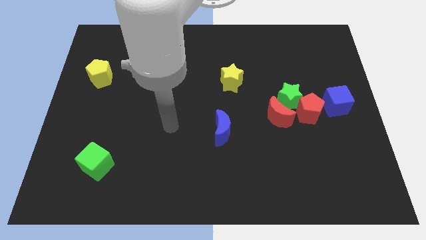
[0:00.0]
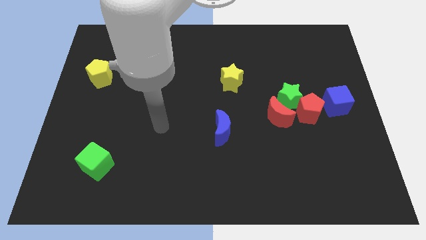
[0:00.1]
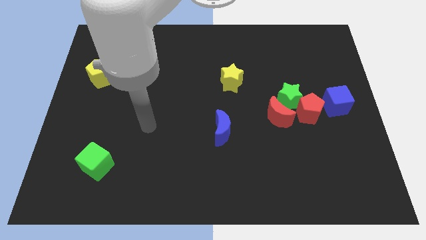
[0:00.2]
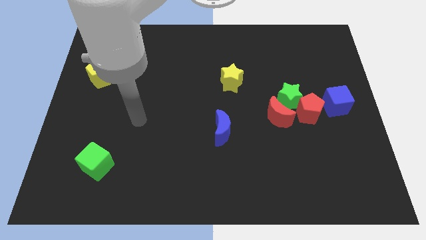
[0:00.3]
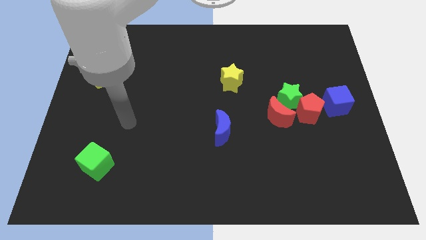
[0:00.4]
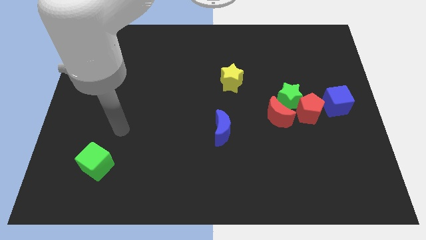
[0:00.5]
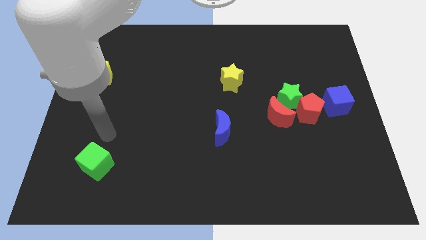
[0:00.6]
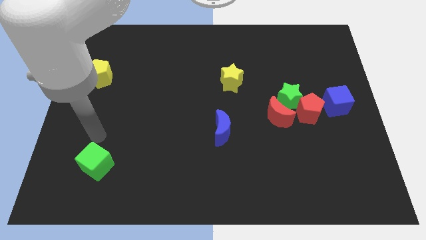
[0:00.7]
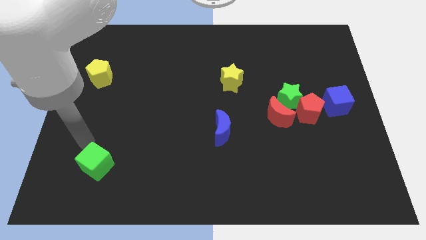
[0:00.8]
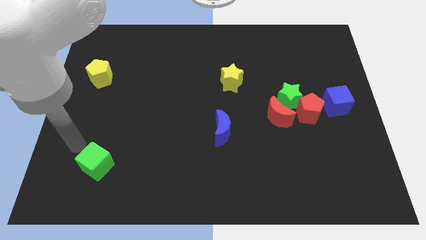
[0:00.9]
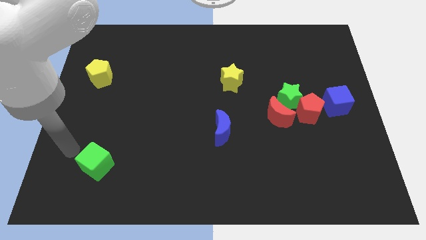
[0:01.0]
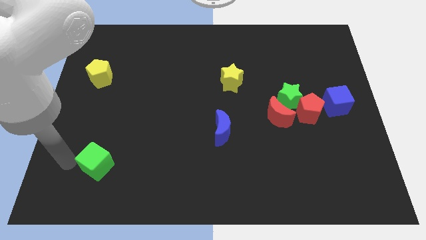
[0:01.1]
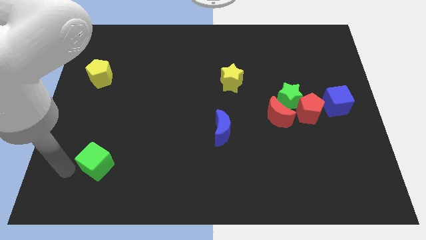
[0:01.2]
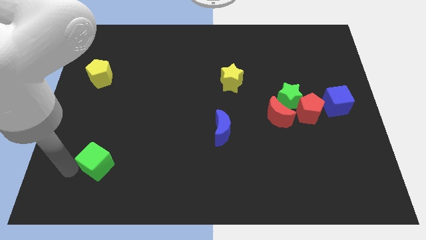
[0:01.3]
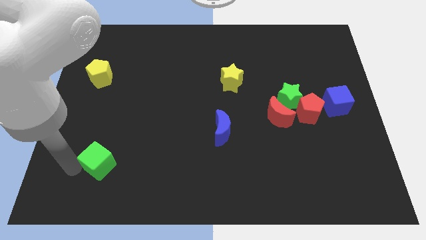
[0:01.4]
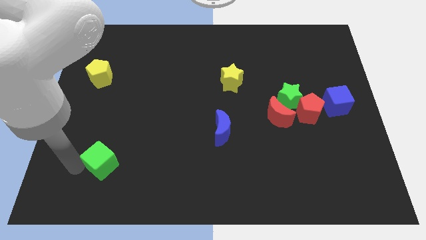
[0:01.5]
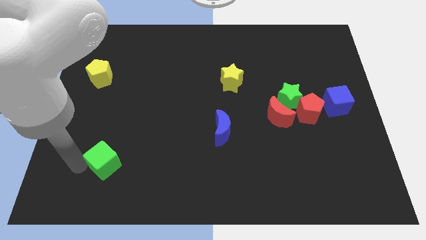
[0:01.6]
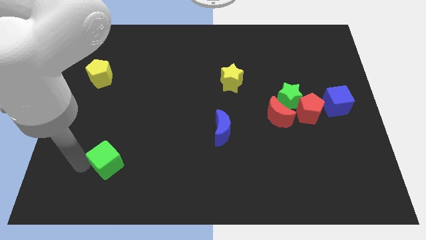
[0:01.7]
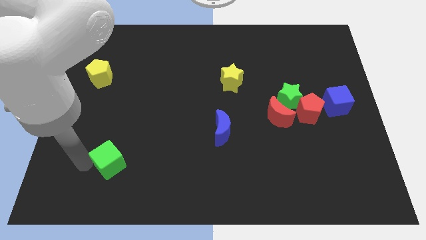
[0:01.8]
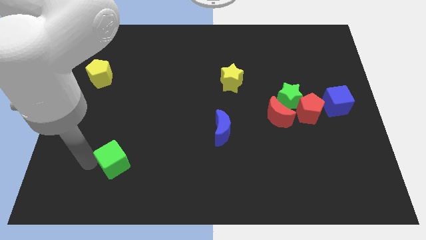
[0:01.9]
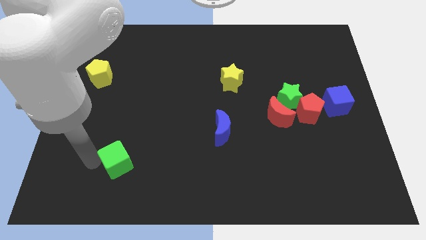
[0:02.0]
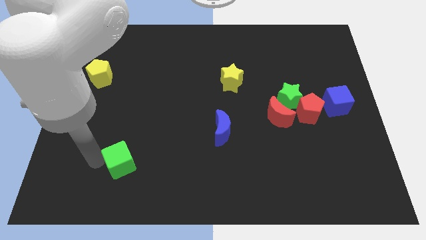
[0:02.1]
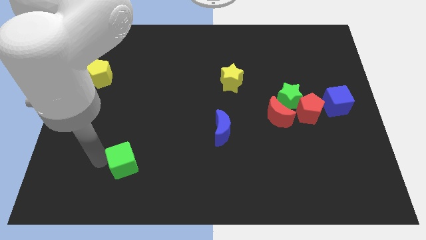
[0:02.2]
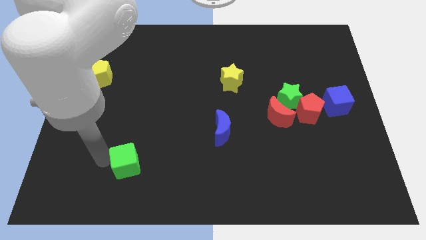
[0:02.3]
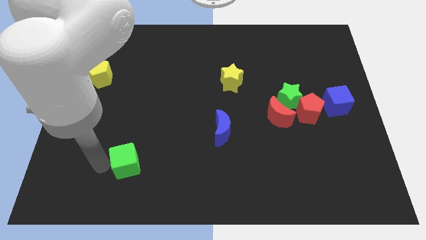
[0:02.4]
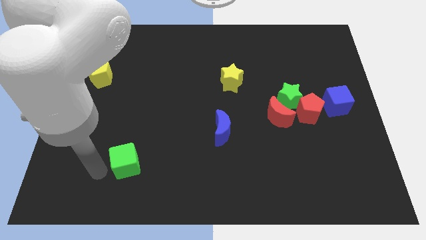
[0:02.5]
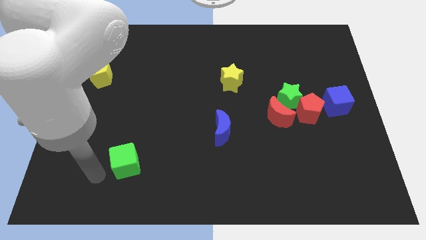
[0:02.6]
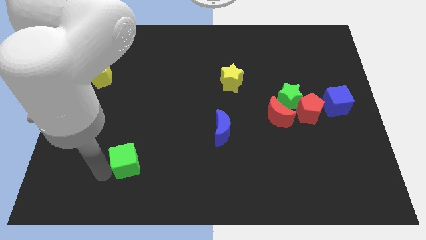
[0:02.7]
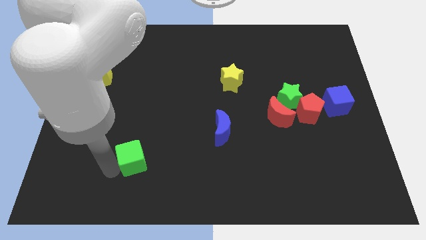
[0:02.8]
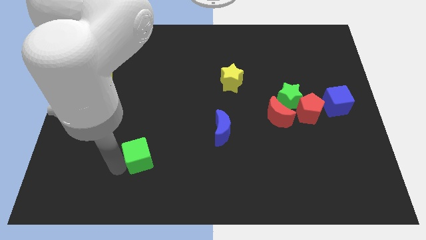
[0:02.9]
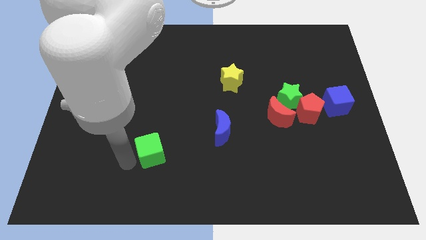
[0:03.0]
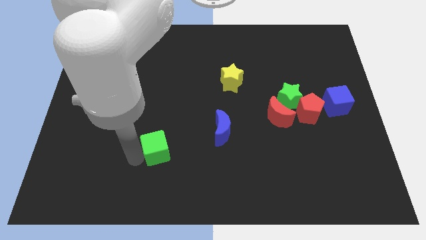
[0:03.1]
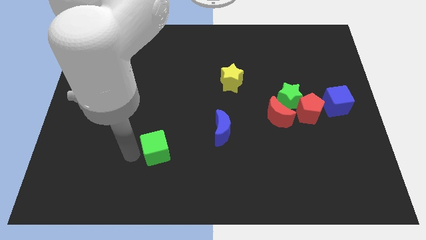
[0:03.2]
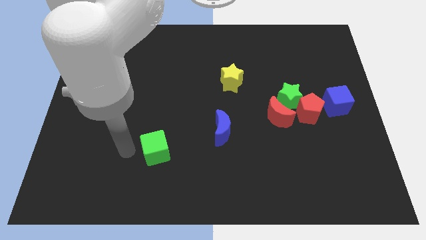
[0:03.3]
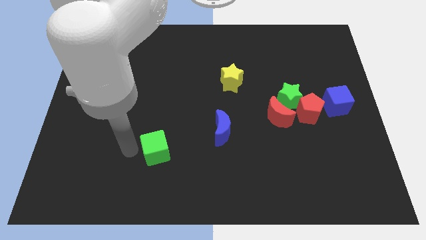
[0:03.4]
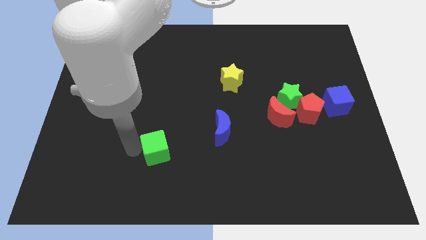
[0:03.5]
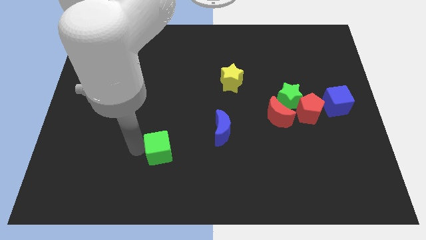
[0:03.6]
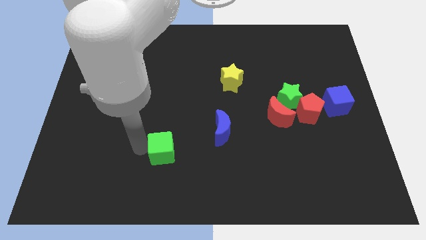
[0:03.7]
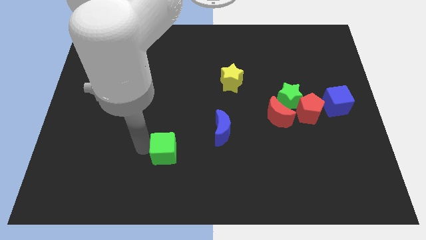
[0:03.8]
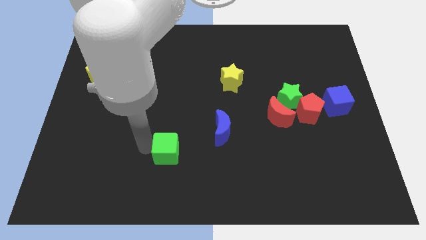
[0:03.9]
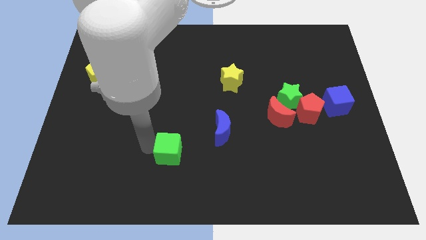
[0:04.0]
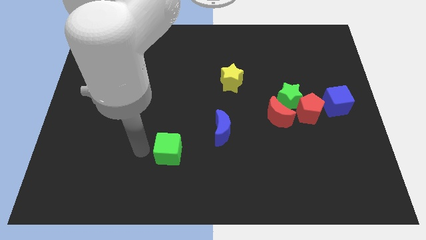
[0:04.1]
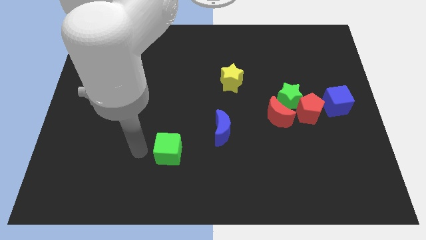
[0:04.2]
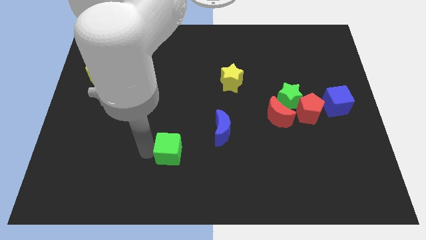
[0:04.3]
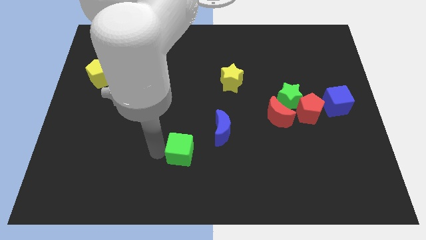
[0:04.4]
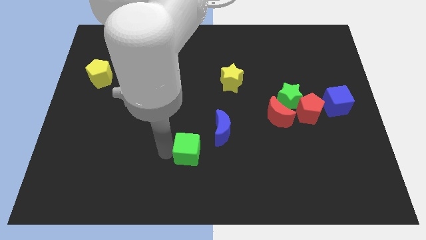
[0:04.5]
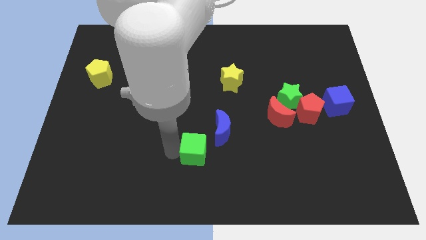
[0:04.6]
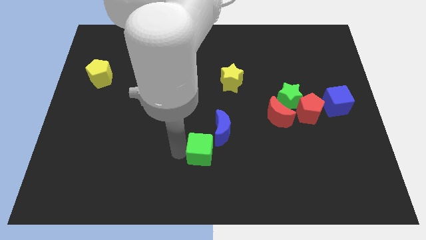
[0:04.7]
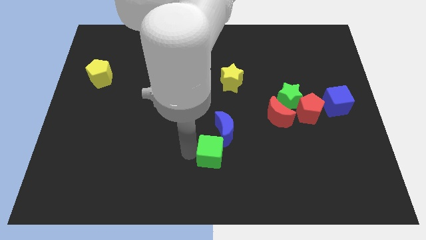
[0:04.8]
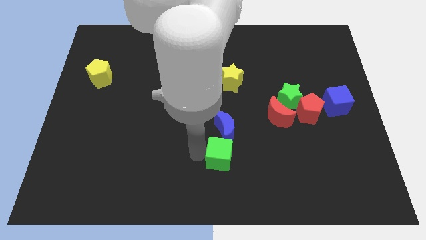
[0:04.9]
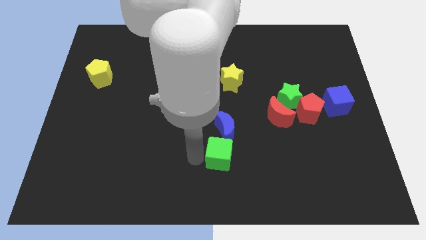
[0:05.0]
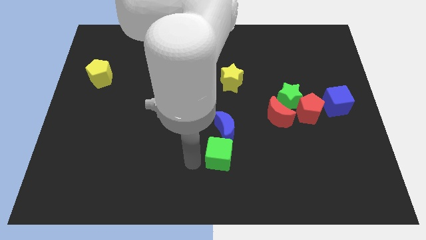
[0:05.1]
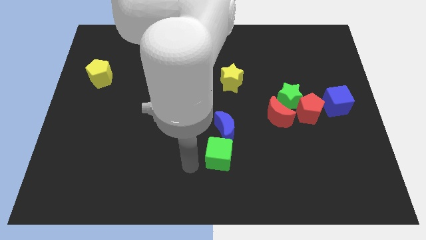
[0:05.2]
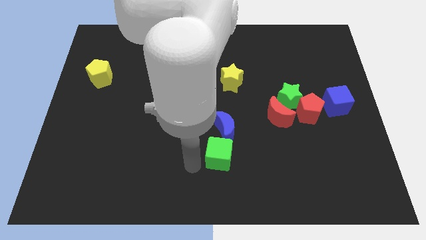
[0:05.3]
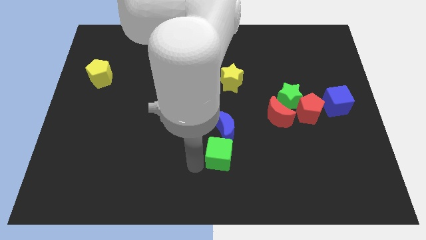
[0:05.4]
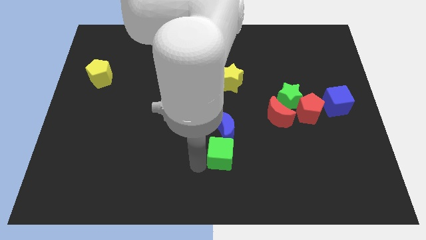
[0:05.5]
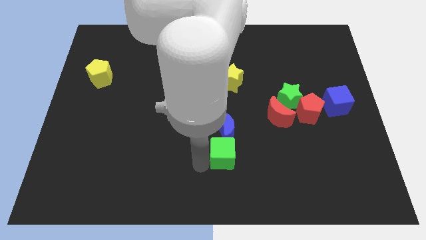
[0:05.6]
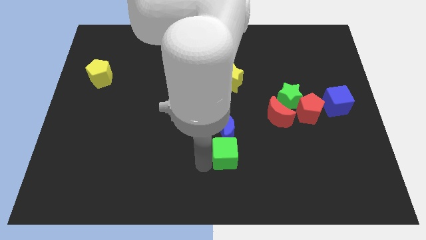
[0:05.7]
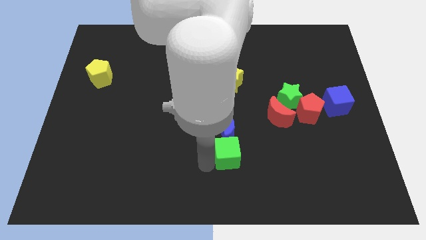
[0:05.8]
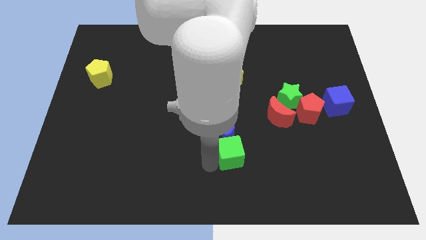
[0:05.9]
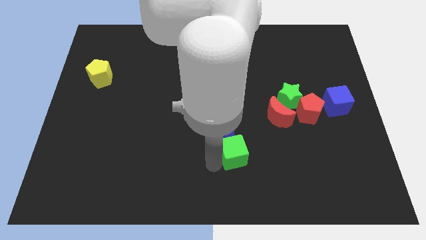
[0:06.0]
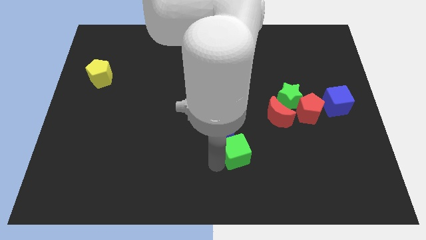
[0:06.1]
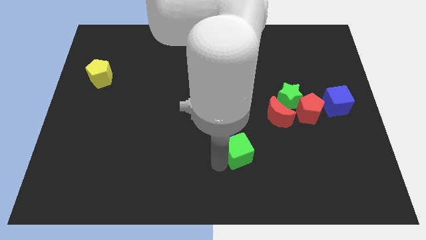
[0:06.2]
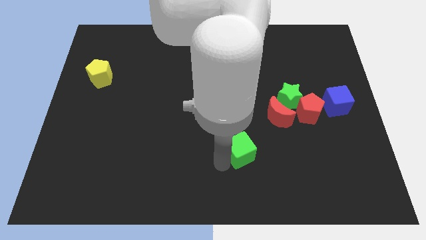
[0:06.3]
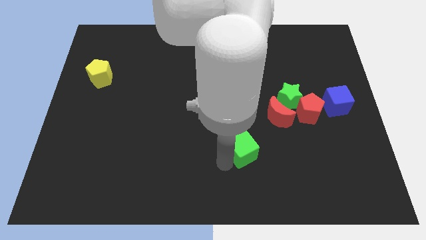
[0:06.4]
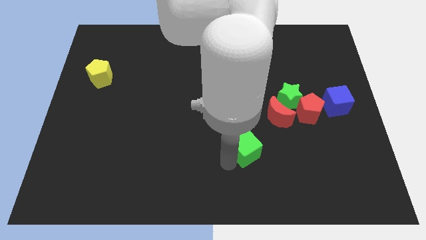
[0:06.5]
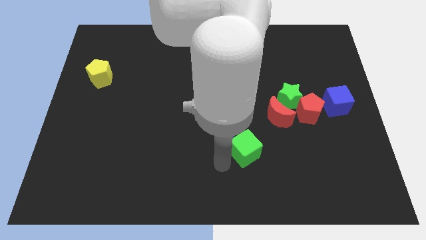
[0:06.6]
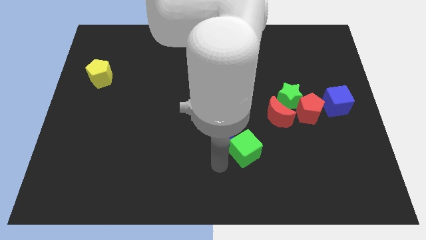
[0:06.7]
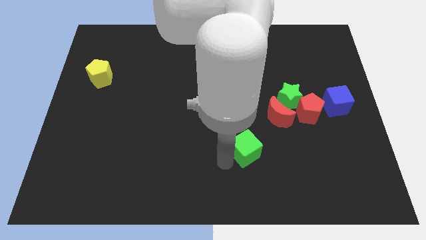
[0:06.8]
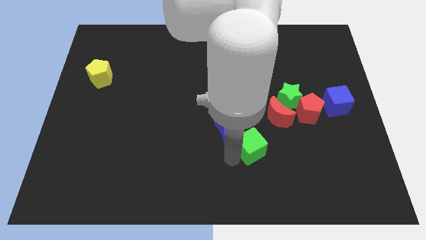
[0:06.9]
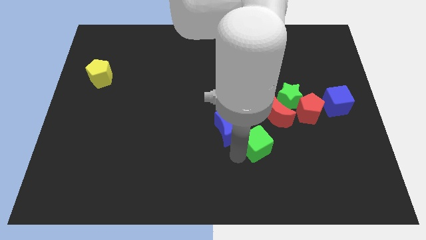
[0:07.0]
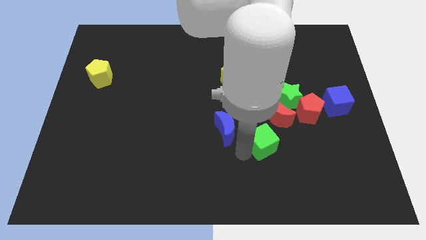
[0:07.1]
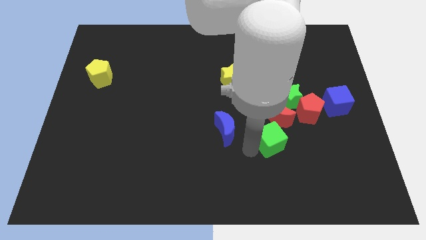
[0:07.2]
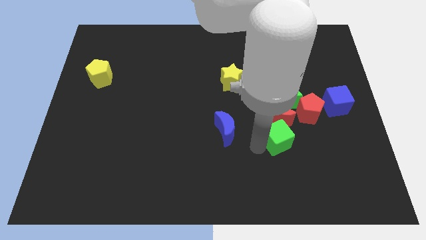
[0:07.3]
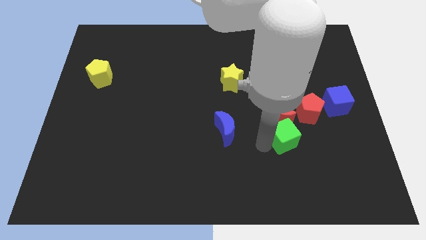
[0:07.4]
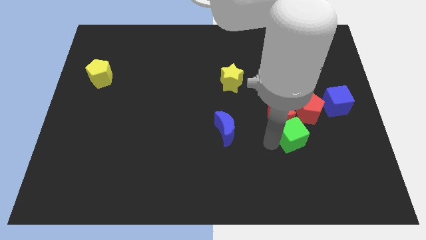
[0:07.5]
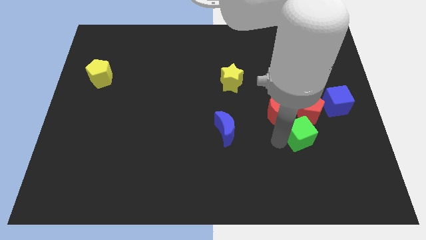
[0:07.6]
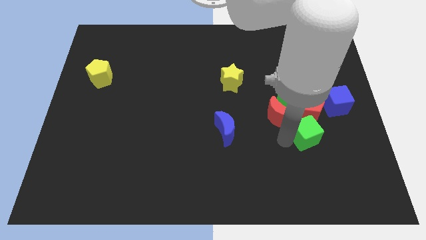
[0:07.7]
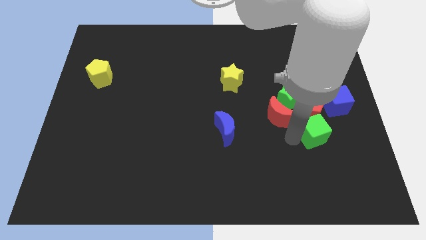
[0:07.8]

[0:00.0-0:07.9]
put the green cube to the bottom right of the red pentagon
